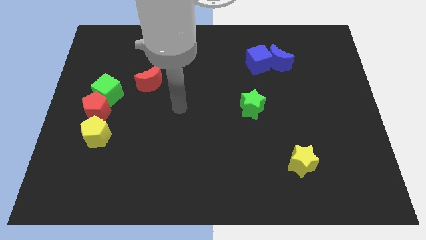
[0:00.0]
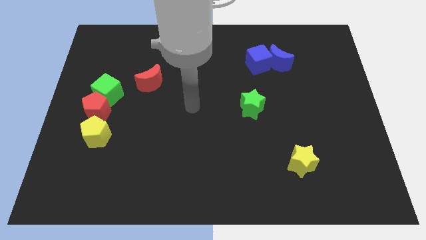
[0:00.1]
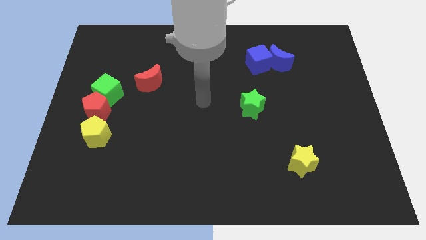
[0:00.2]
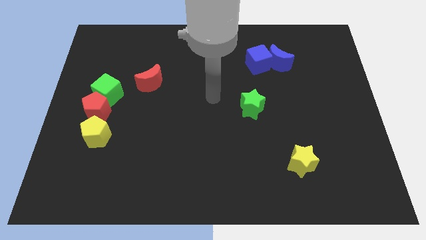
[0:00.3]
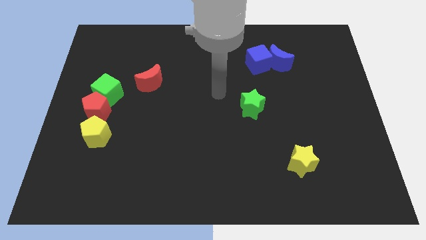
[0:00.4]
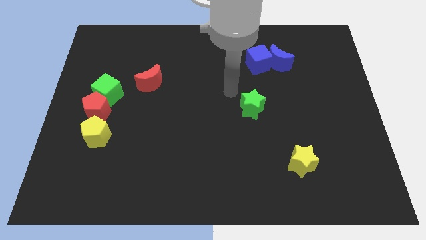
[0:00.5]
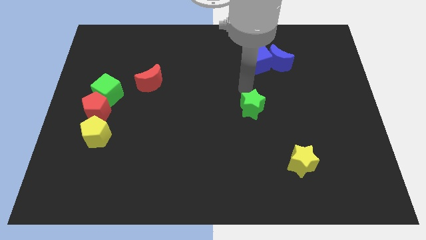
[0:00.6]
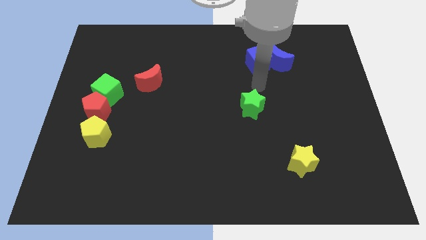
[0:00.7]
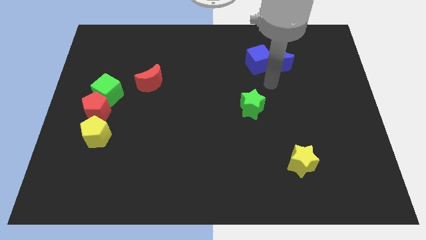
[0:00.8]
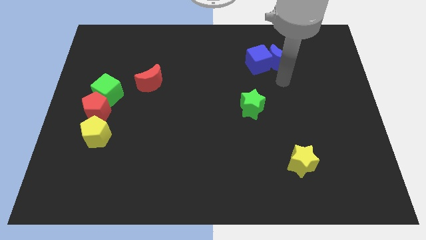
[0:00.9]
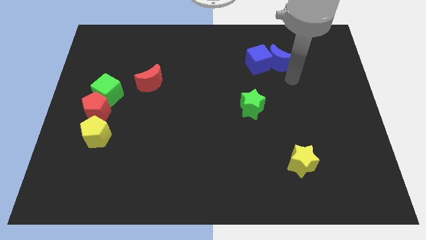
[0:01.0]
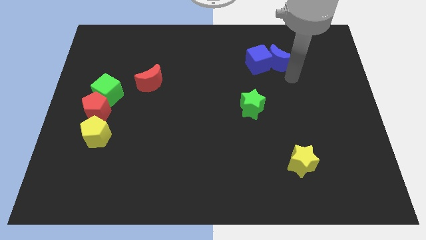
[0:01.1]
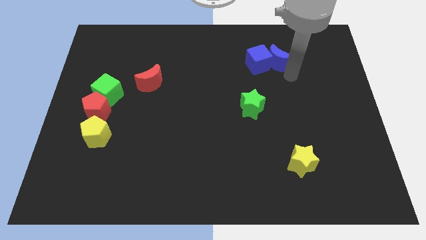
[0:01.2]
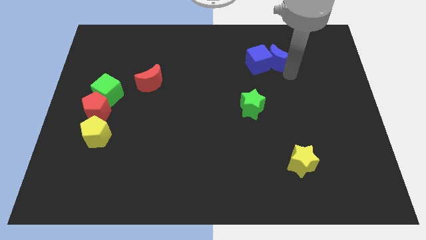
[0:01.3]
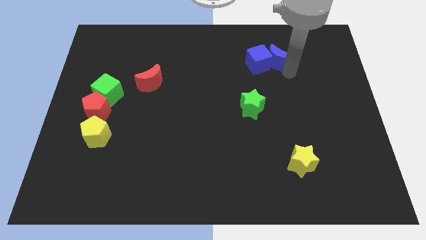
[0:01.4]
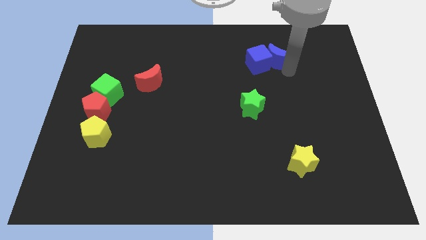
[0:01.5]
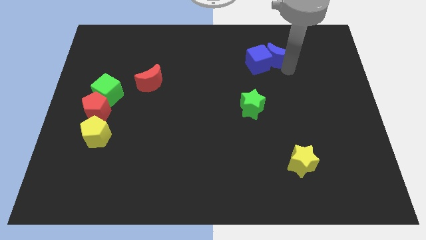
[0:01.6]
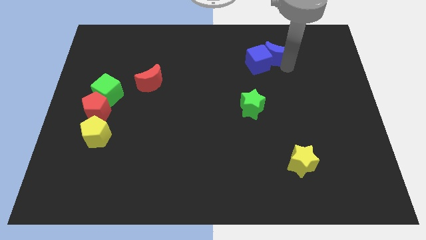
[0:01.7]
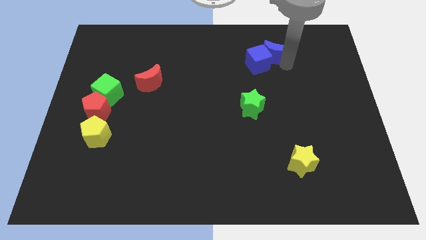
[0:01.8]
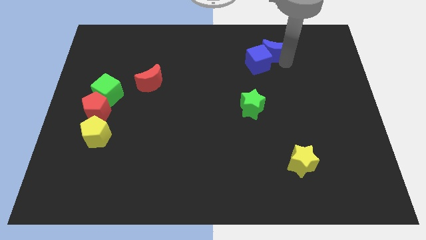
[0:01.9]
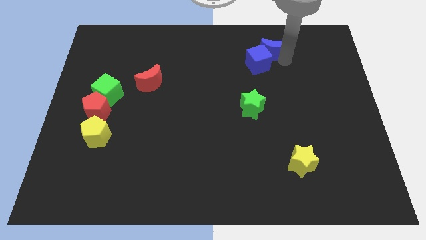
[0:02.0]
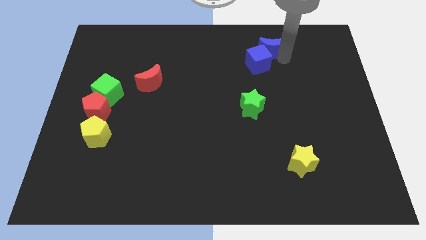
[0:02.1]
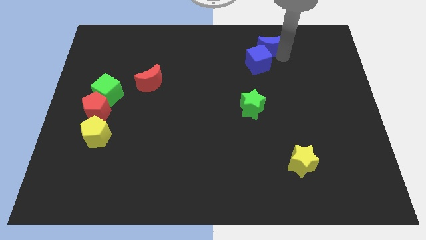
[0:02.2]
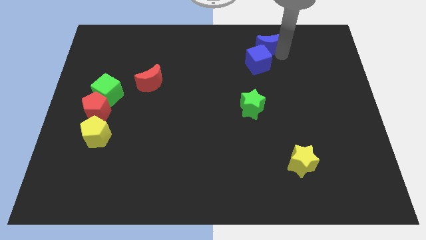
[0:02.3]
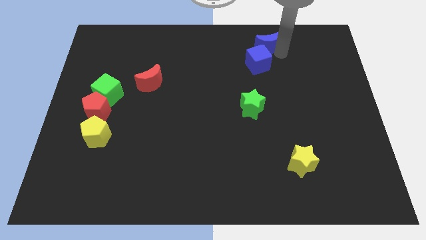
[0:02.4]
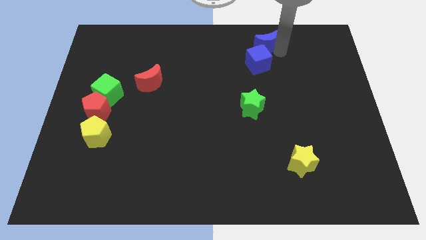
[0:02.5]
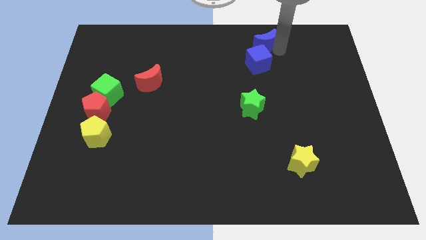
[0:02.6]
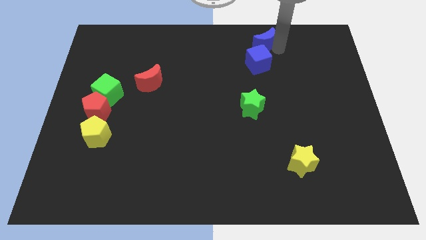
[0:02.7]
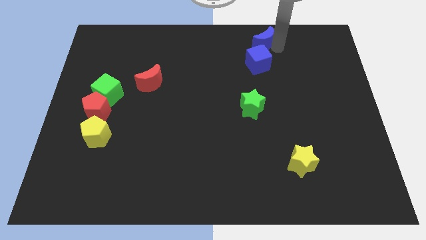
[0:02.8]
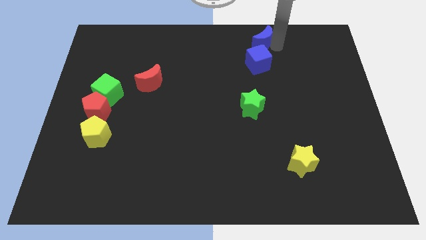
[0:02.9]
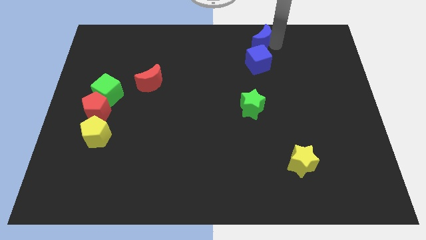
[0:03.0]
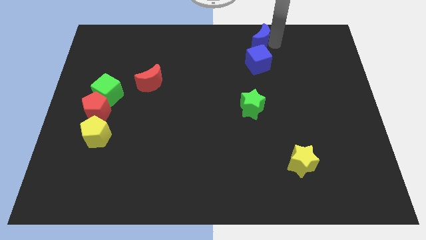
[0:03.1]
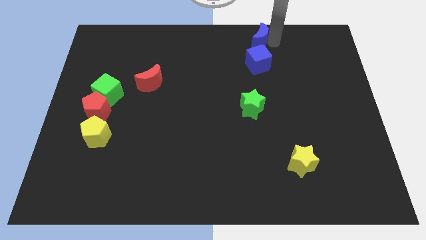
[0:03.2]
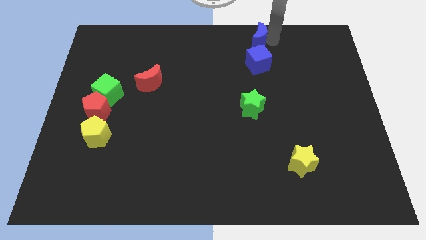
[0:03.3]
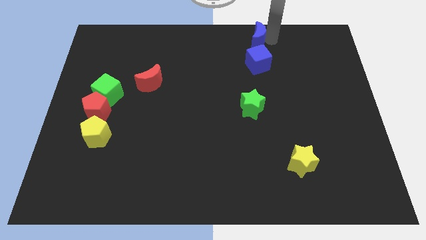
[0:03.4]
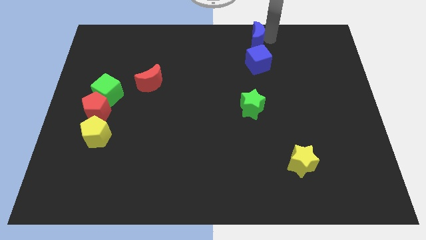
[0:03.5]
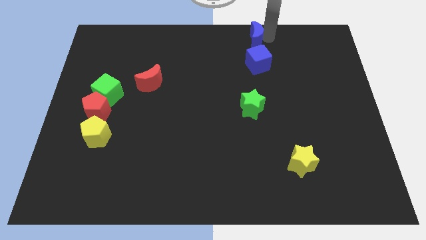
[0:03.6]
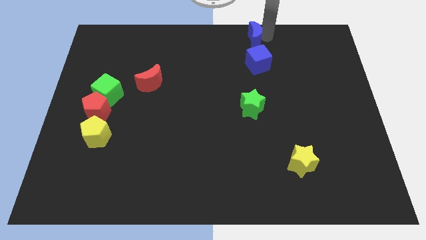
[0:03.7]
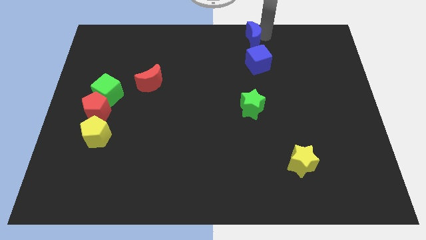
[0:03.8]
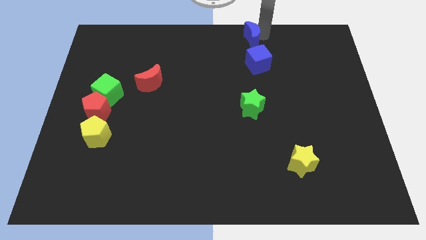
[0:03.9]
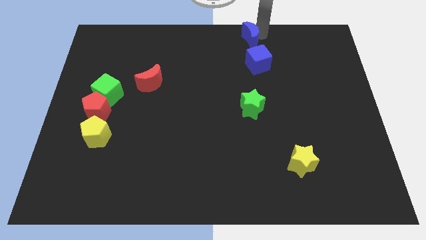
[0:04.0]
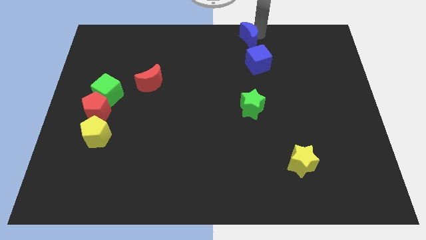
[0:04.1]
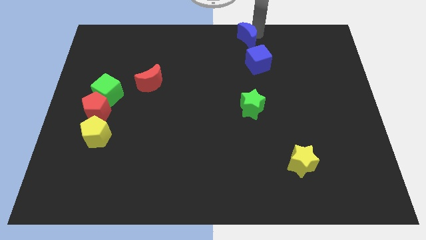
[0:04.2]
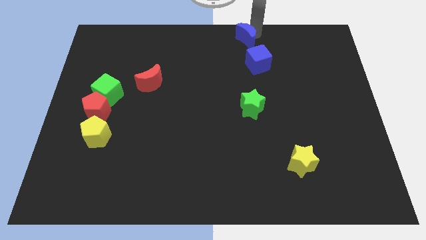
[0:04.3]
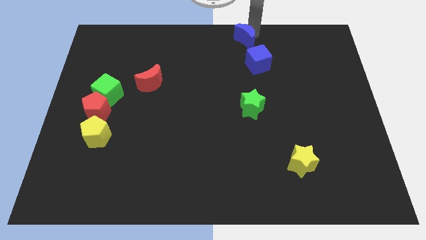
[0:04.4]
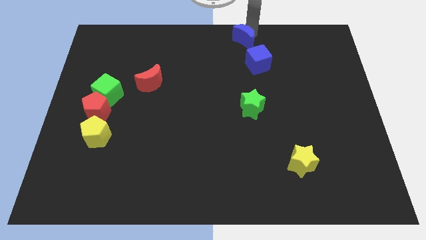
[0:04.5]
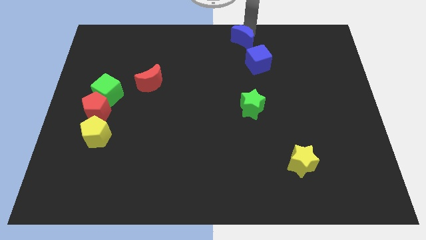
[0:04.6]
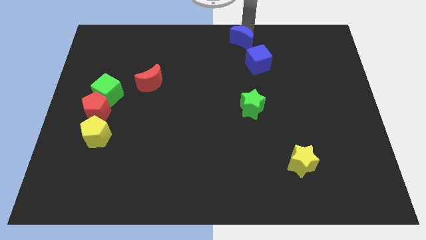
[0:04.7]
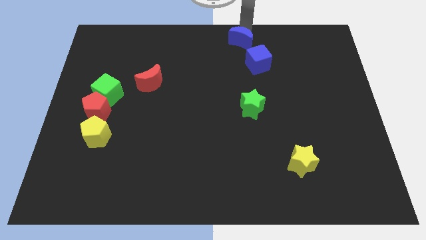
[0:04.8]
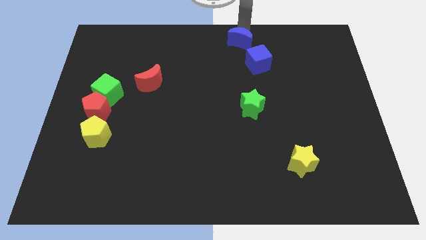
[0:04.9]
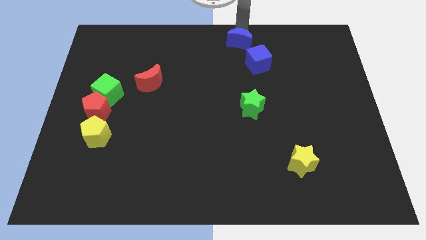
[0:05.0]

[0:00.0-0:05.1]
move the blue moon a bit left

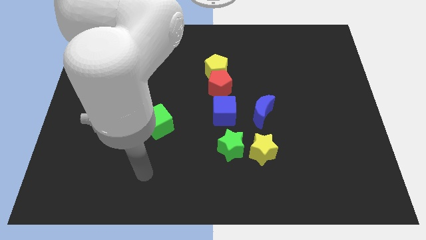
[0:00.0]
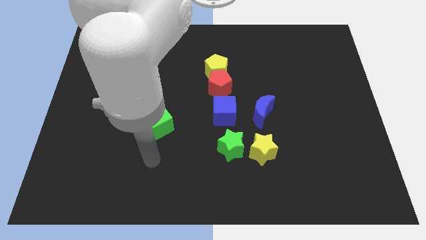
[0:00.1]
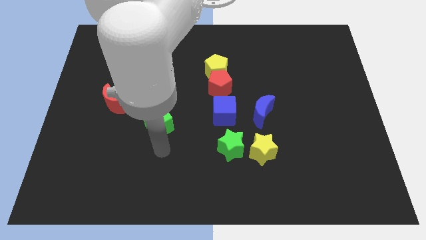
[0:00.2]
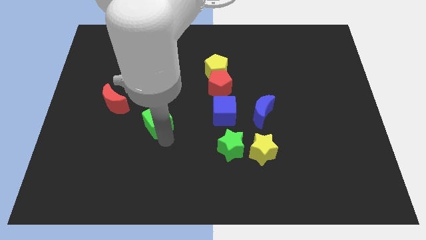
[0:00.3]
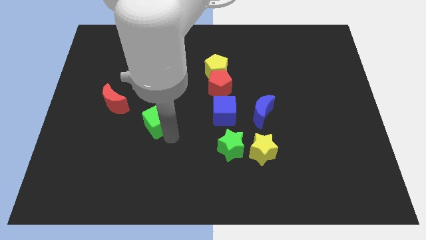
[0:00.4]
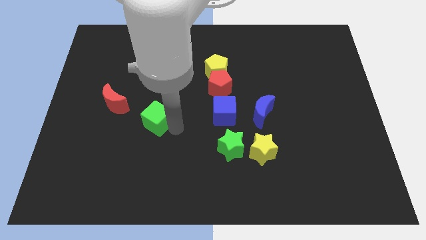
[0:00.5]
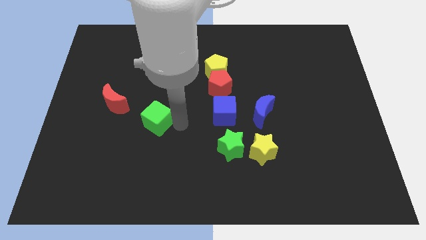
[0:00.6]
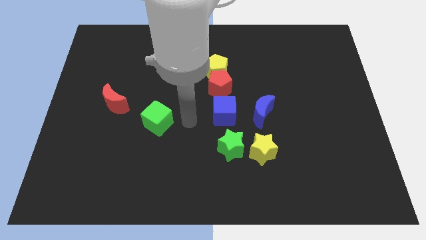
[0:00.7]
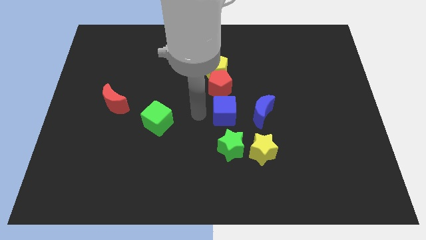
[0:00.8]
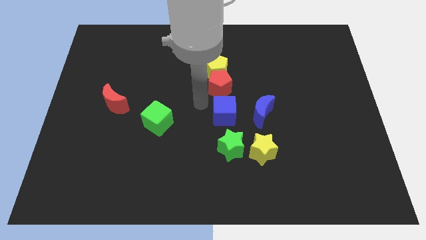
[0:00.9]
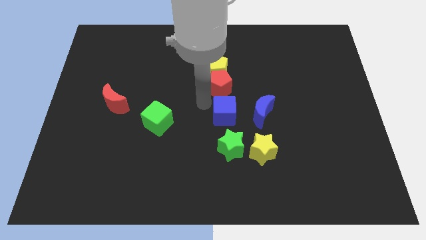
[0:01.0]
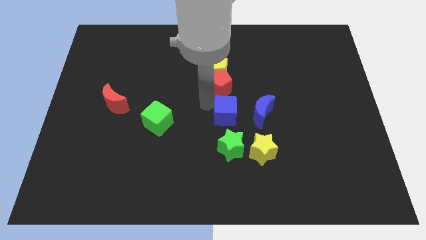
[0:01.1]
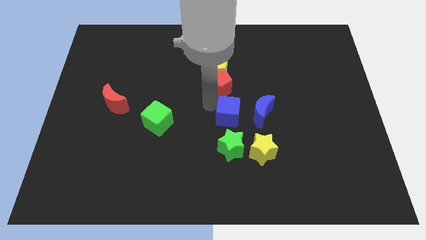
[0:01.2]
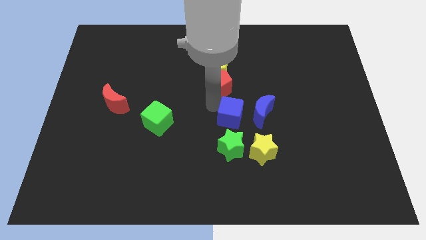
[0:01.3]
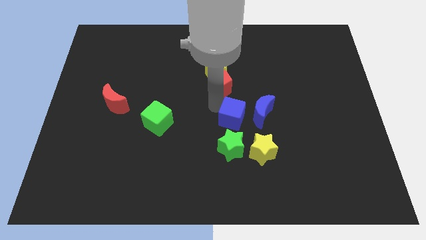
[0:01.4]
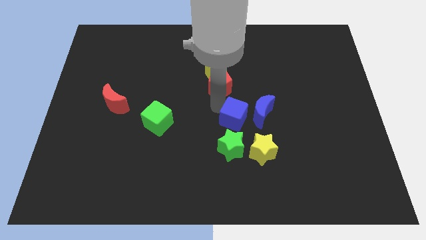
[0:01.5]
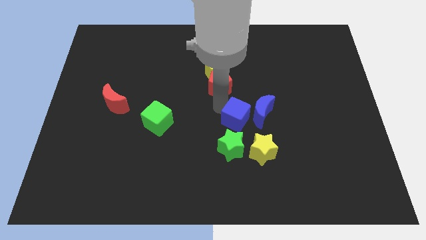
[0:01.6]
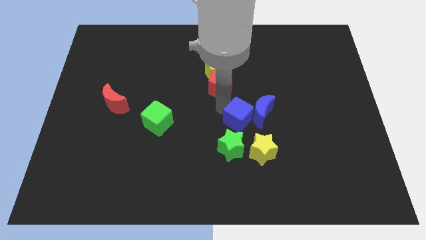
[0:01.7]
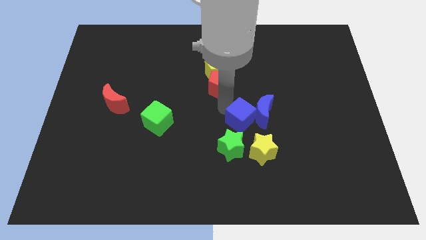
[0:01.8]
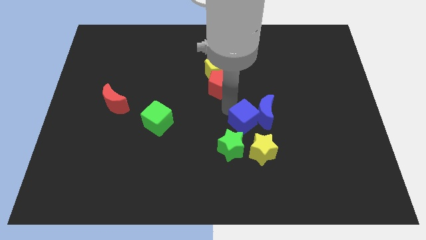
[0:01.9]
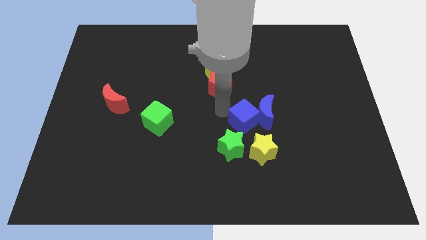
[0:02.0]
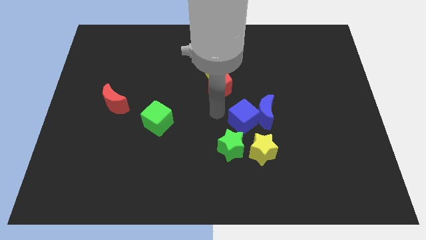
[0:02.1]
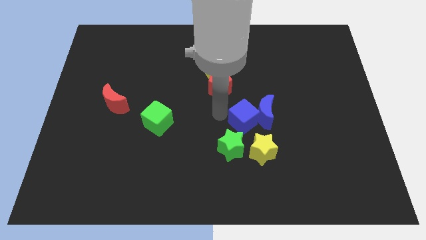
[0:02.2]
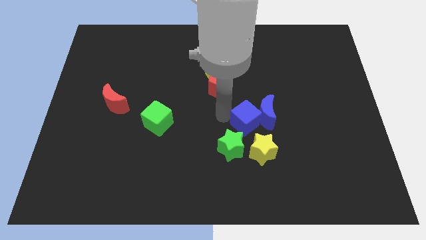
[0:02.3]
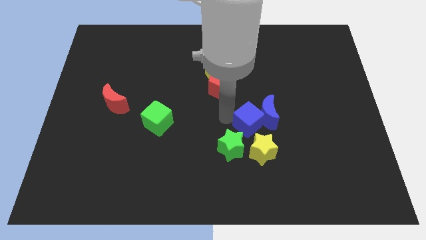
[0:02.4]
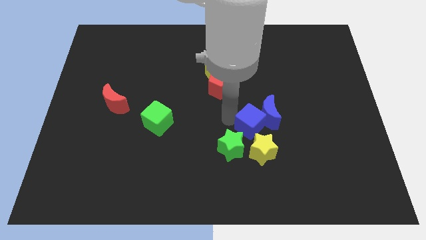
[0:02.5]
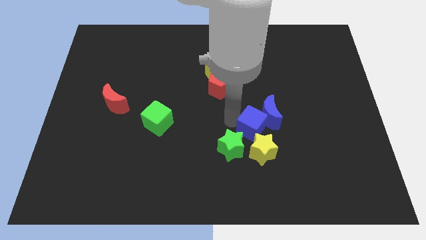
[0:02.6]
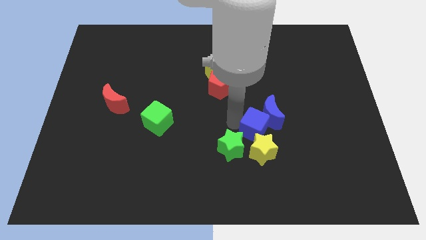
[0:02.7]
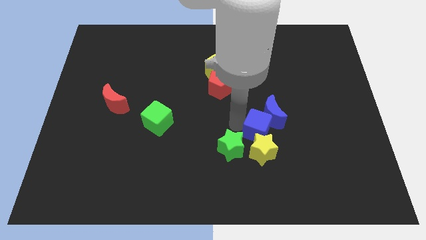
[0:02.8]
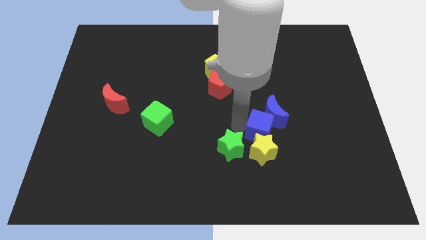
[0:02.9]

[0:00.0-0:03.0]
slightly move the blue cube to the right

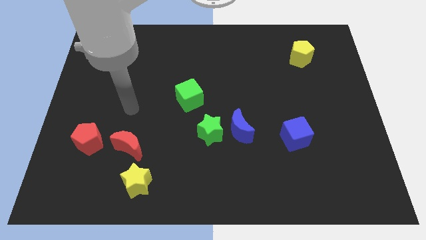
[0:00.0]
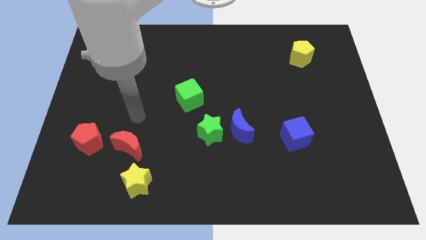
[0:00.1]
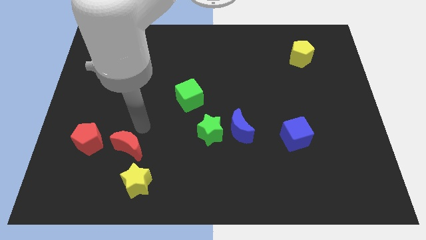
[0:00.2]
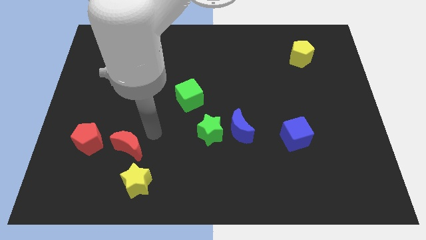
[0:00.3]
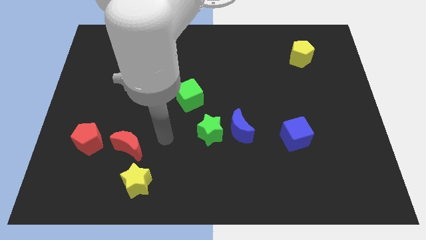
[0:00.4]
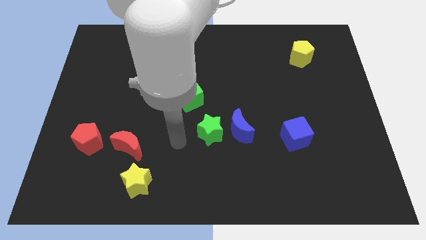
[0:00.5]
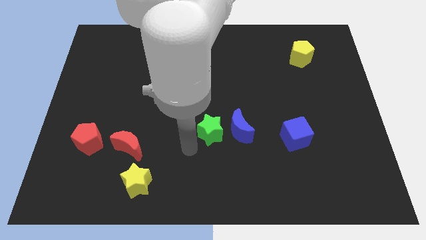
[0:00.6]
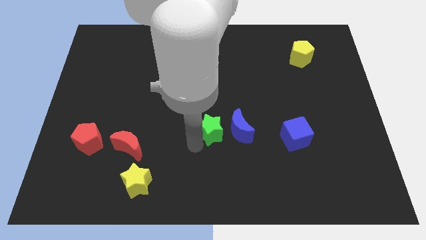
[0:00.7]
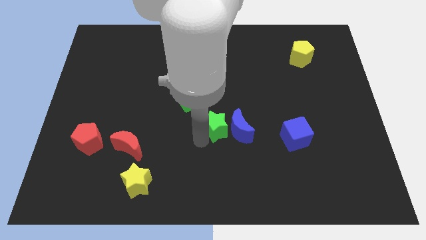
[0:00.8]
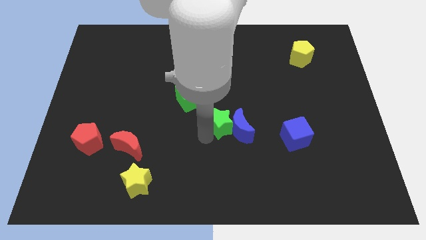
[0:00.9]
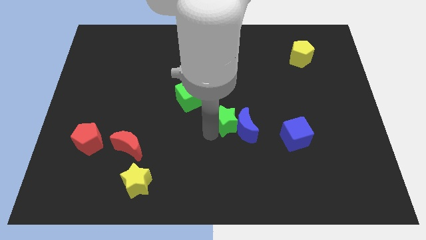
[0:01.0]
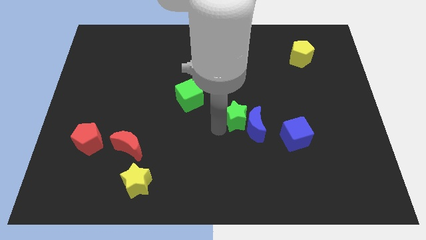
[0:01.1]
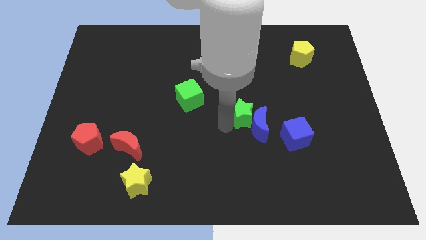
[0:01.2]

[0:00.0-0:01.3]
slide the green star a little bit diagonally upwards and to the right
